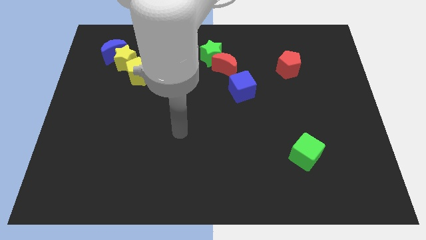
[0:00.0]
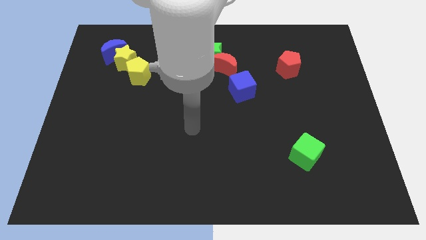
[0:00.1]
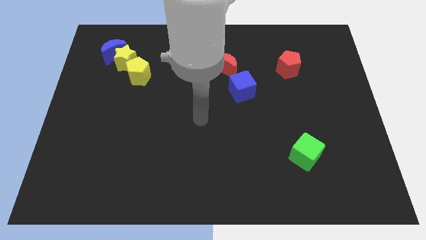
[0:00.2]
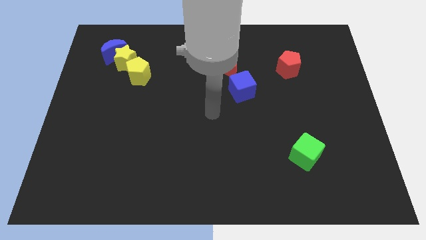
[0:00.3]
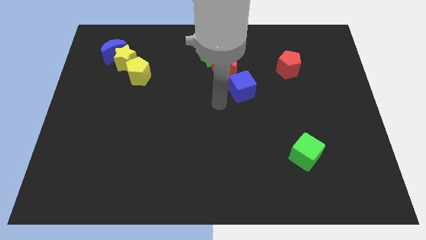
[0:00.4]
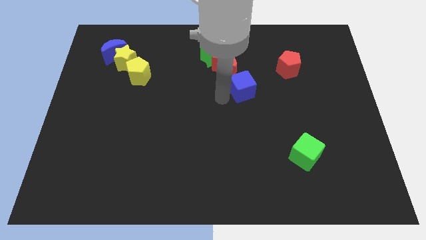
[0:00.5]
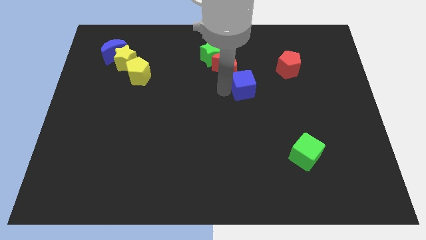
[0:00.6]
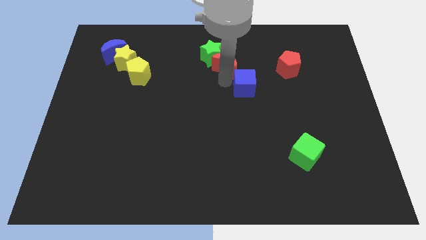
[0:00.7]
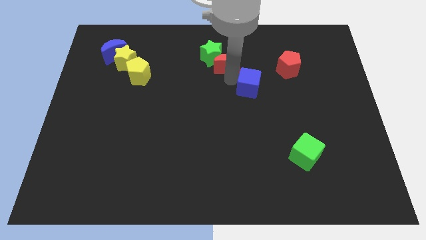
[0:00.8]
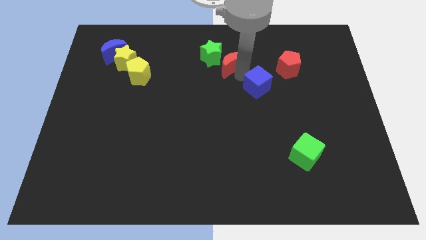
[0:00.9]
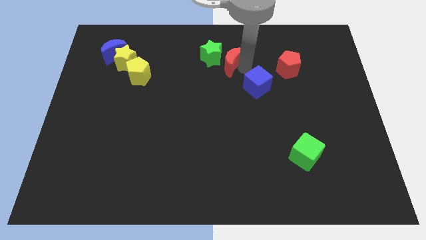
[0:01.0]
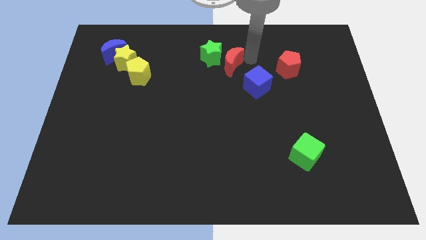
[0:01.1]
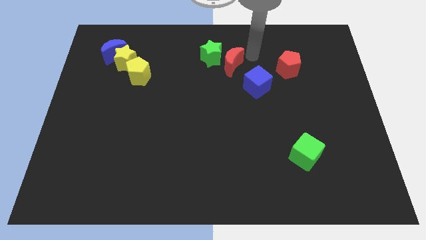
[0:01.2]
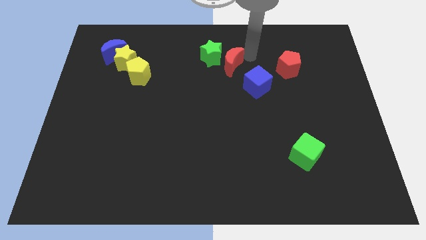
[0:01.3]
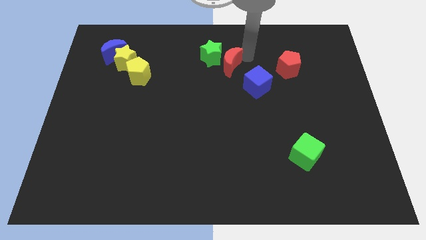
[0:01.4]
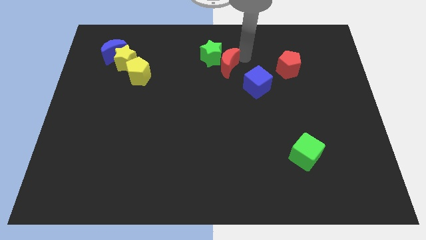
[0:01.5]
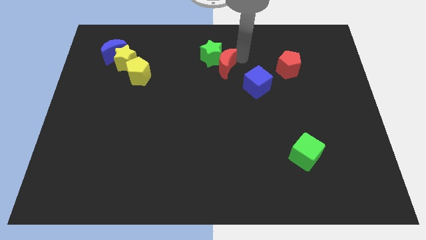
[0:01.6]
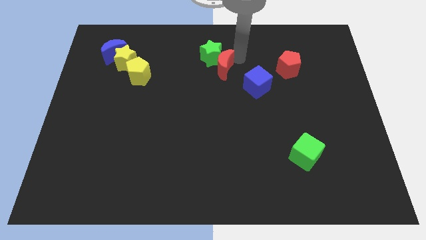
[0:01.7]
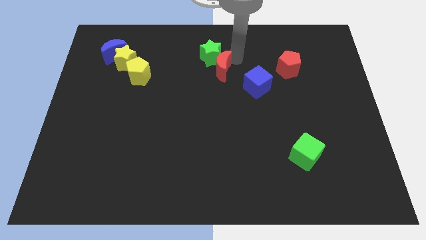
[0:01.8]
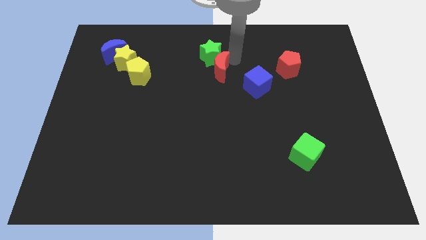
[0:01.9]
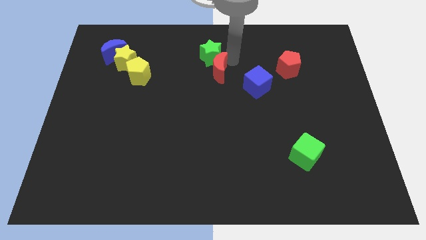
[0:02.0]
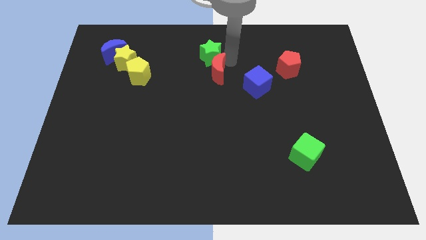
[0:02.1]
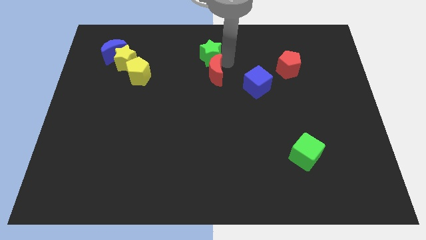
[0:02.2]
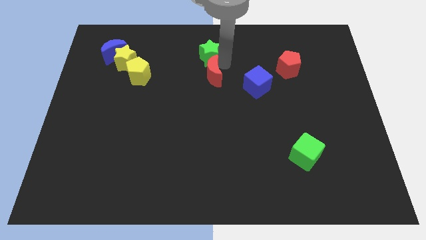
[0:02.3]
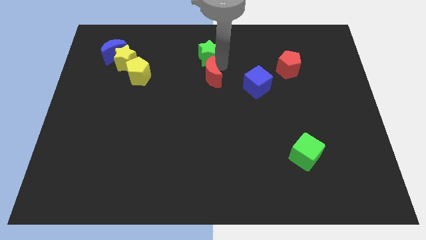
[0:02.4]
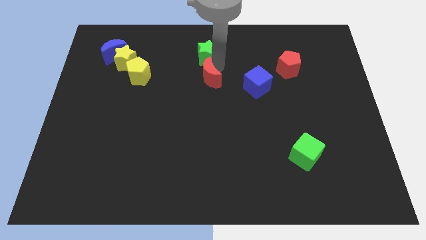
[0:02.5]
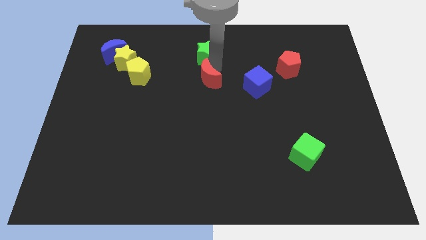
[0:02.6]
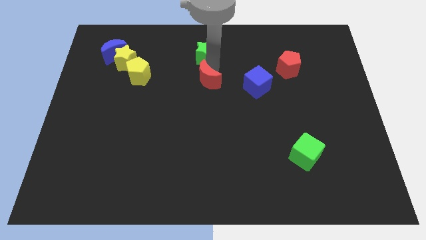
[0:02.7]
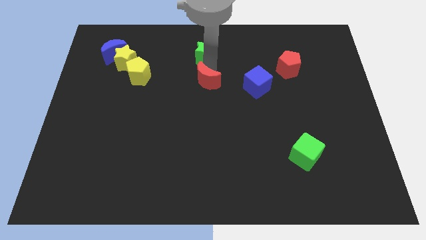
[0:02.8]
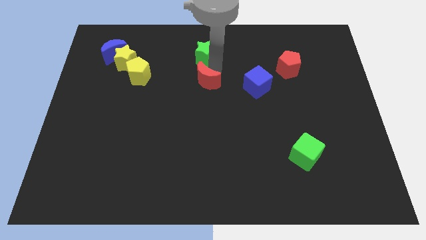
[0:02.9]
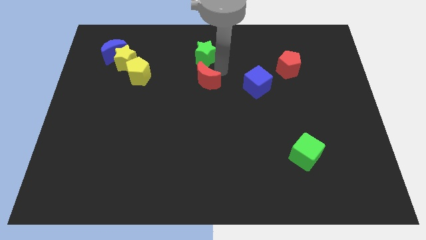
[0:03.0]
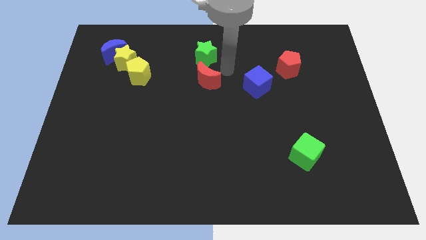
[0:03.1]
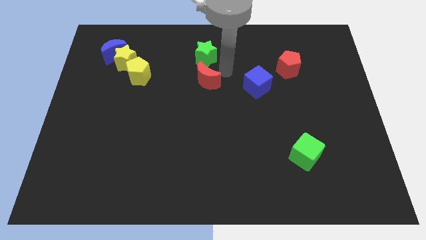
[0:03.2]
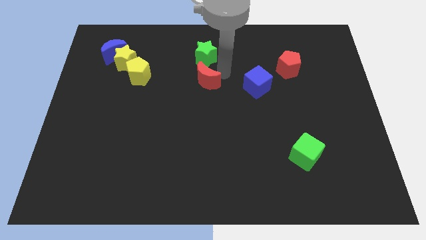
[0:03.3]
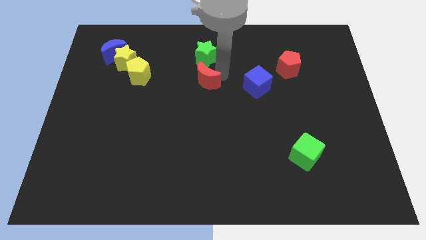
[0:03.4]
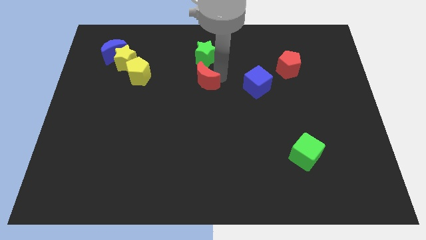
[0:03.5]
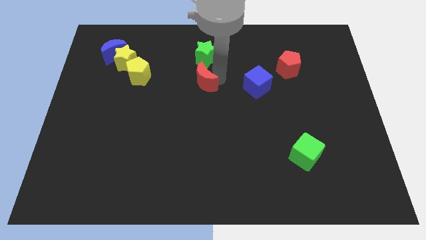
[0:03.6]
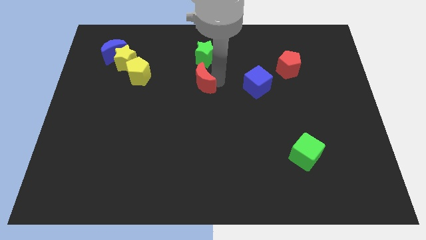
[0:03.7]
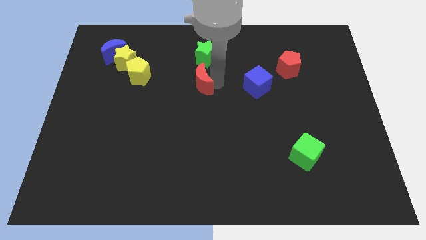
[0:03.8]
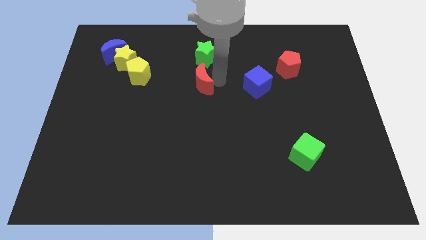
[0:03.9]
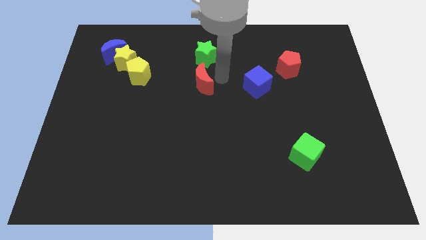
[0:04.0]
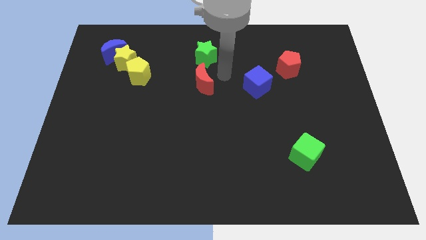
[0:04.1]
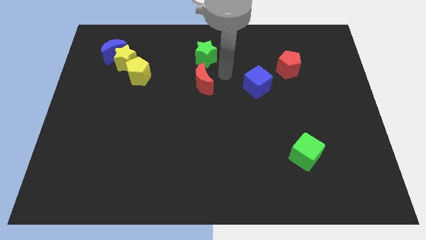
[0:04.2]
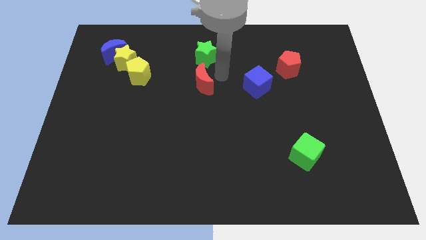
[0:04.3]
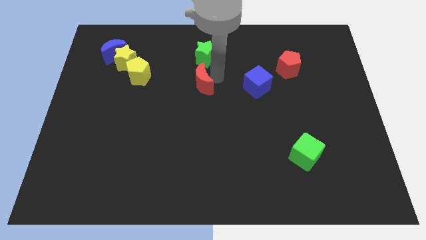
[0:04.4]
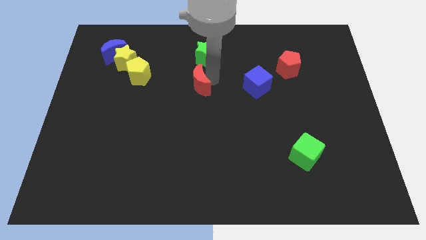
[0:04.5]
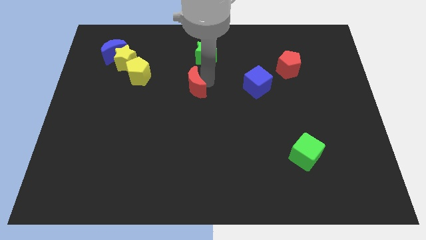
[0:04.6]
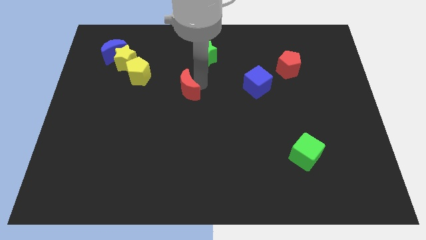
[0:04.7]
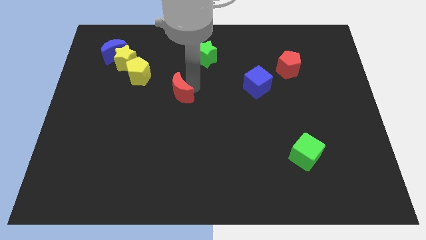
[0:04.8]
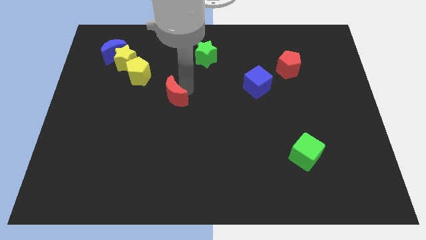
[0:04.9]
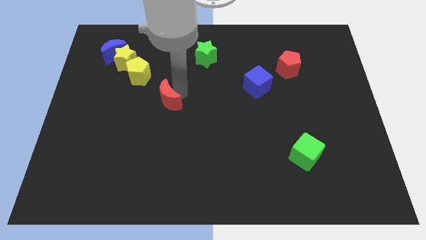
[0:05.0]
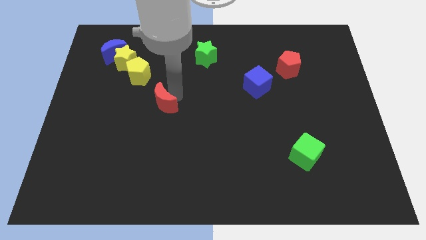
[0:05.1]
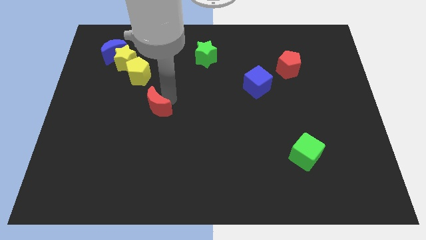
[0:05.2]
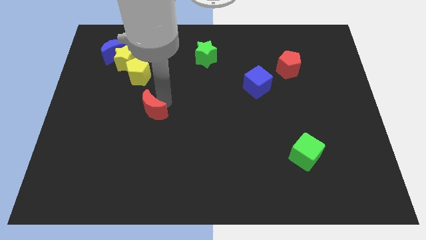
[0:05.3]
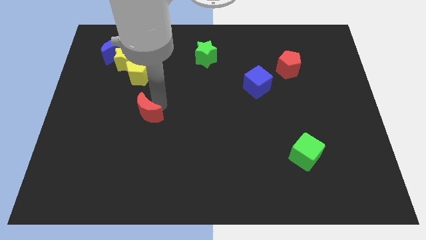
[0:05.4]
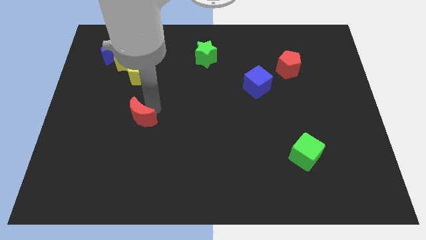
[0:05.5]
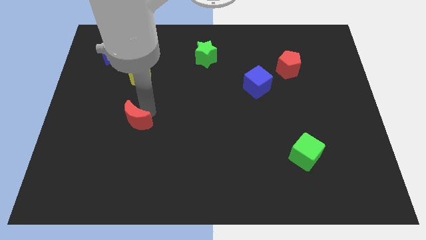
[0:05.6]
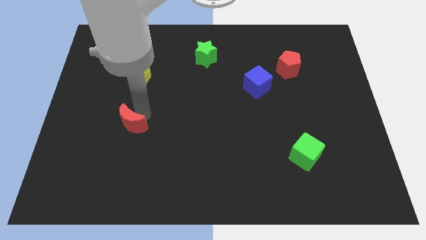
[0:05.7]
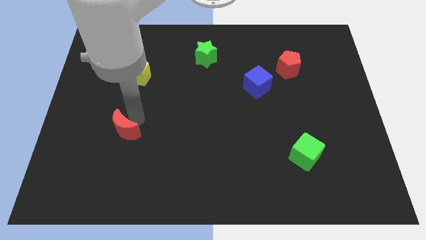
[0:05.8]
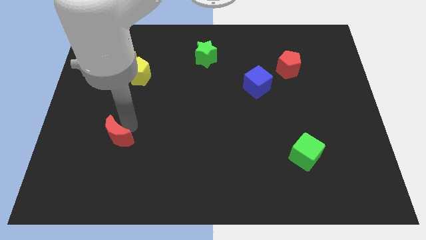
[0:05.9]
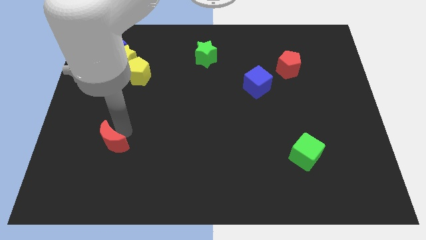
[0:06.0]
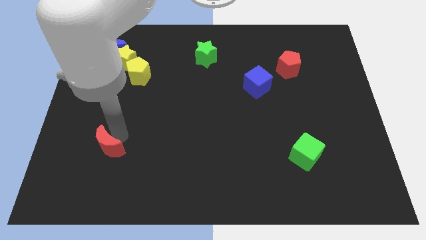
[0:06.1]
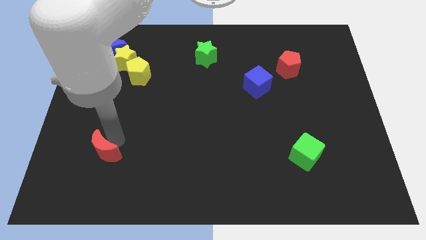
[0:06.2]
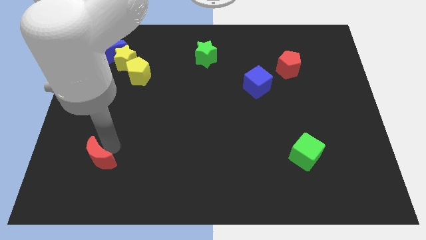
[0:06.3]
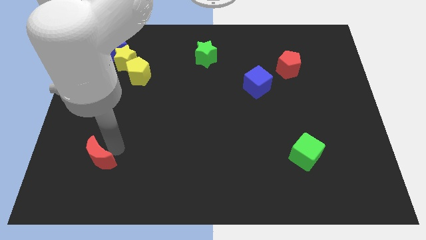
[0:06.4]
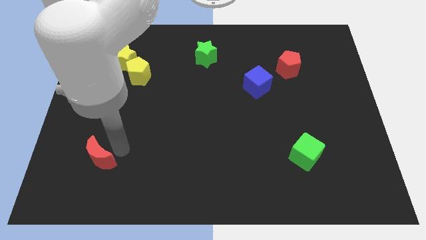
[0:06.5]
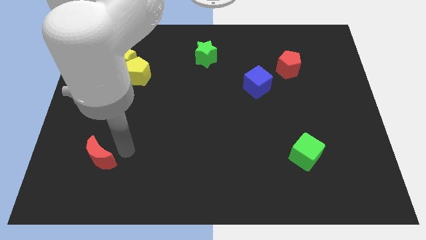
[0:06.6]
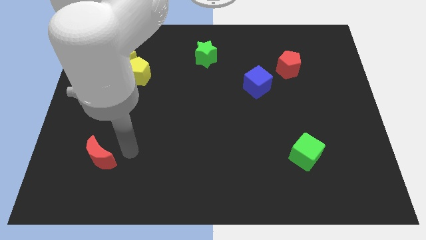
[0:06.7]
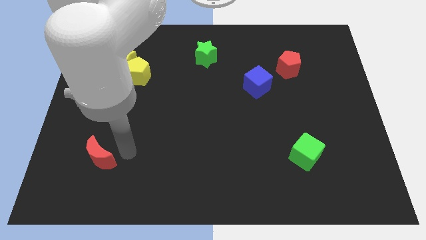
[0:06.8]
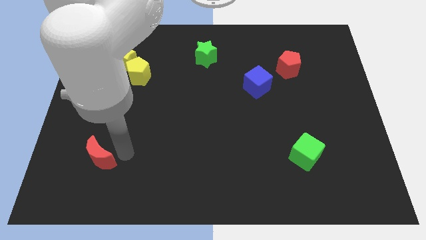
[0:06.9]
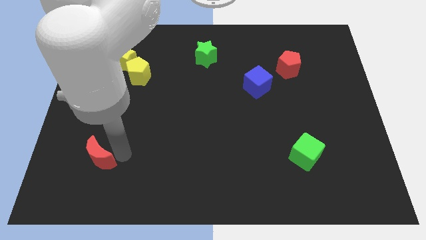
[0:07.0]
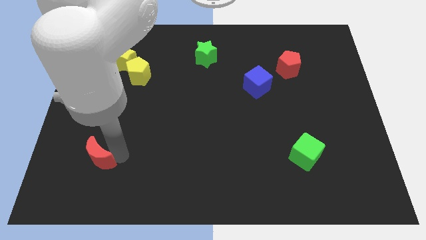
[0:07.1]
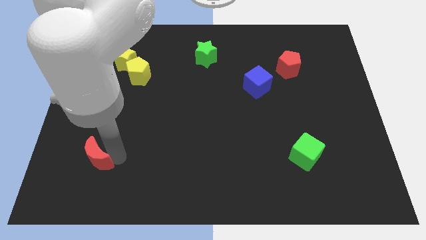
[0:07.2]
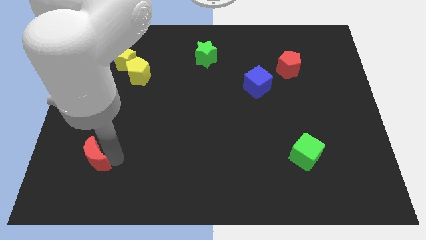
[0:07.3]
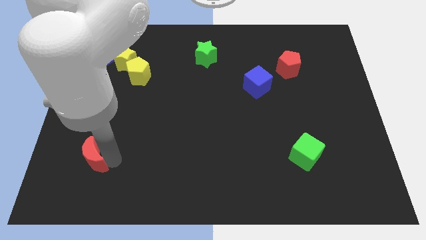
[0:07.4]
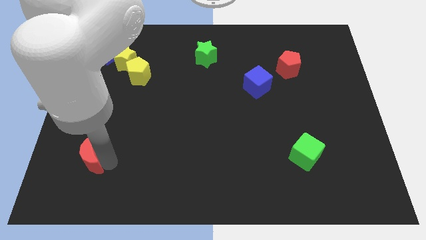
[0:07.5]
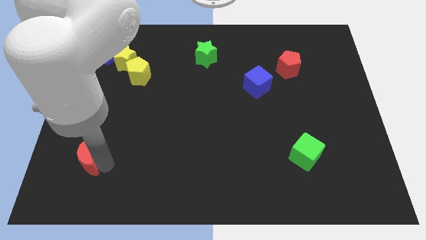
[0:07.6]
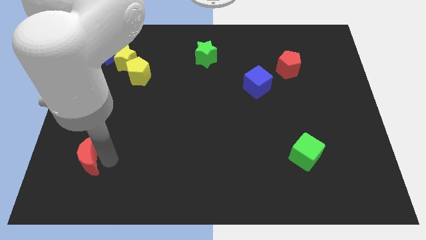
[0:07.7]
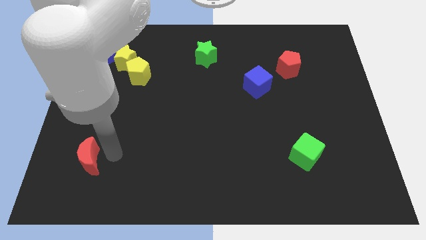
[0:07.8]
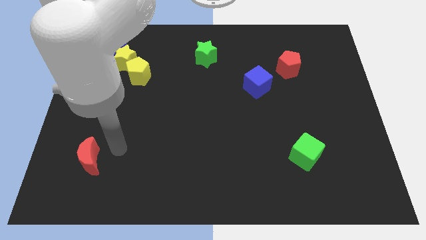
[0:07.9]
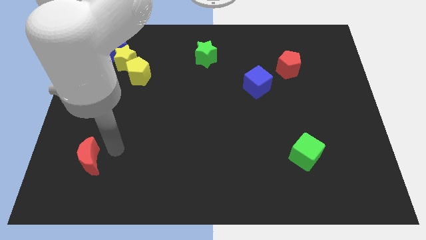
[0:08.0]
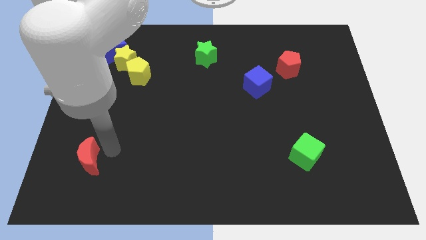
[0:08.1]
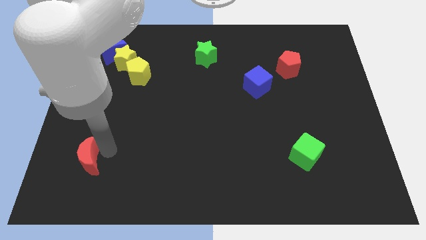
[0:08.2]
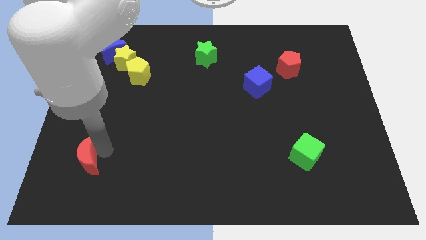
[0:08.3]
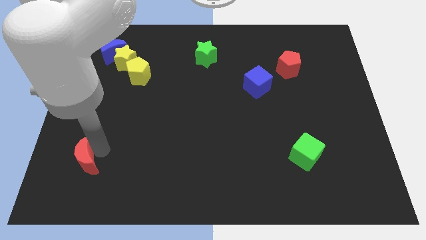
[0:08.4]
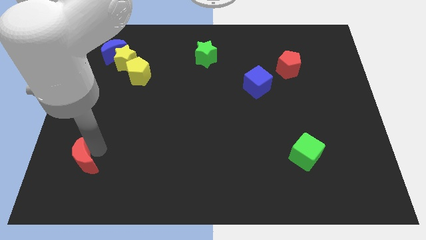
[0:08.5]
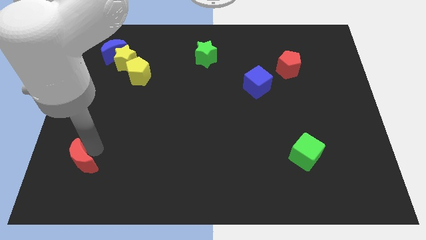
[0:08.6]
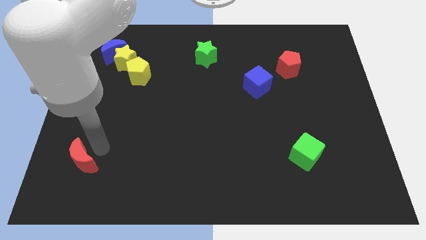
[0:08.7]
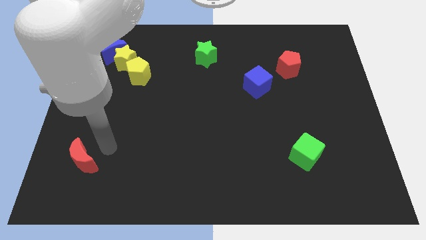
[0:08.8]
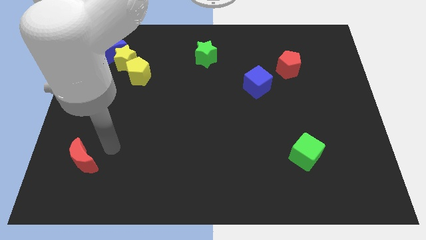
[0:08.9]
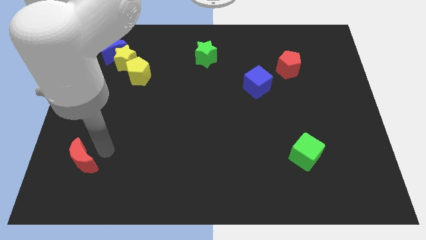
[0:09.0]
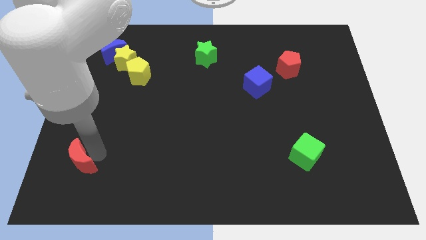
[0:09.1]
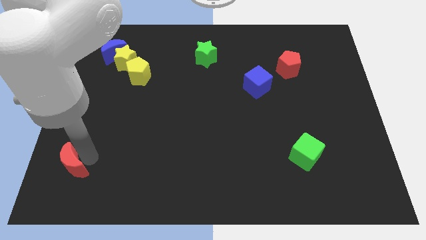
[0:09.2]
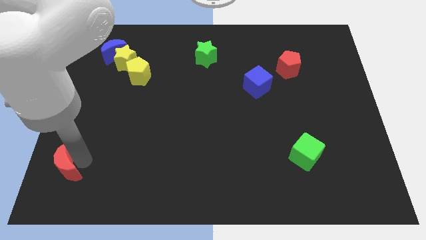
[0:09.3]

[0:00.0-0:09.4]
put the red moon to the lower left corner
